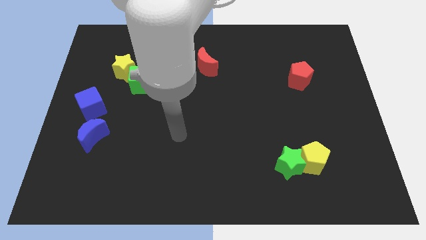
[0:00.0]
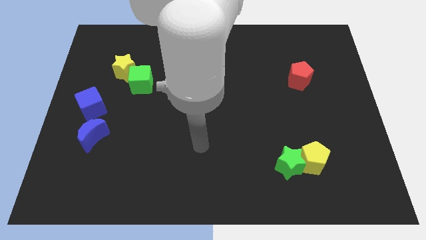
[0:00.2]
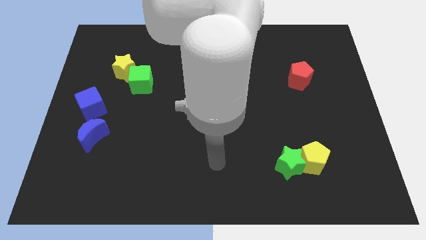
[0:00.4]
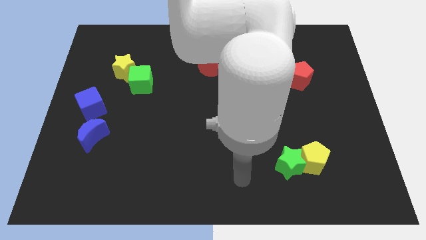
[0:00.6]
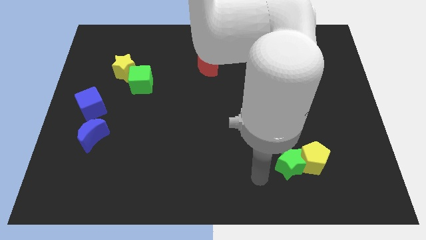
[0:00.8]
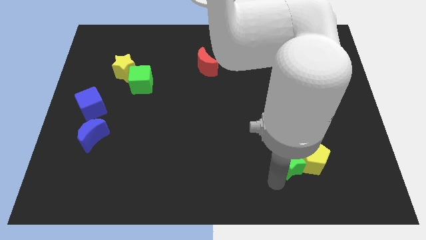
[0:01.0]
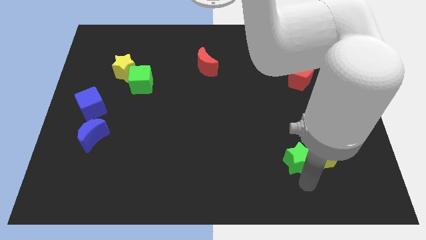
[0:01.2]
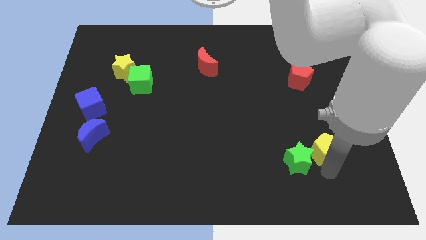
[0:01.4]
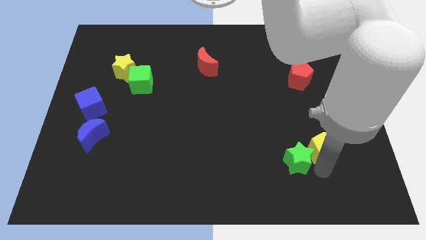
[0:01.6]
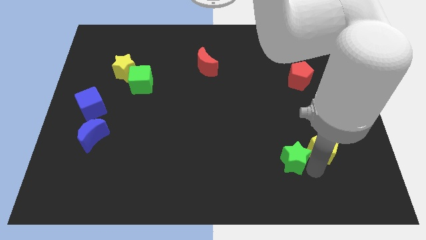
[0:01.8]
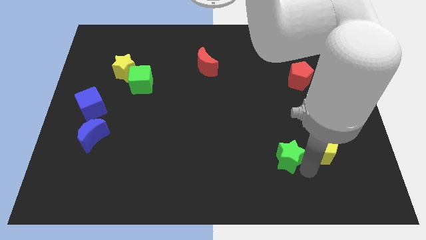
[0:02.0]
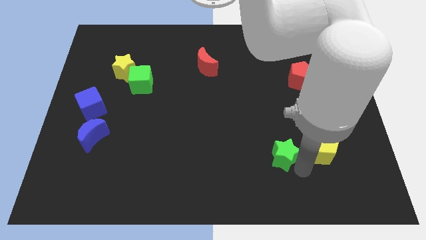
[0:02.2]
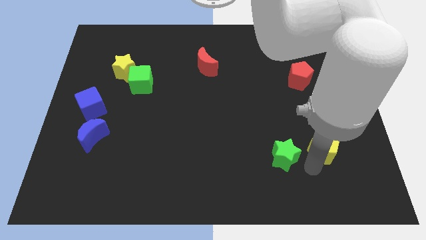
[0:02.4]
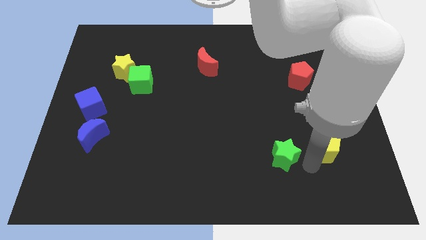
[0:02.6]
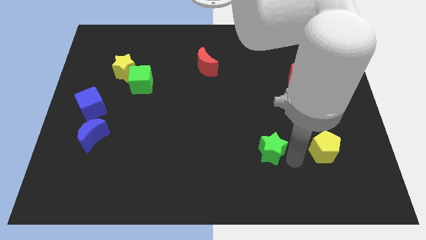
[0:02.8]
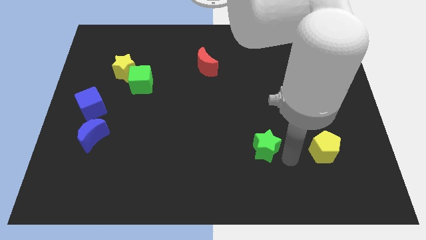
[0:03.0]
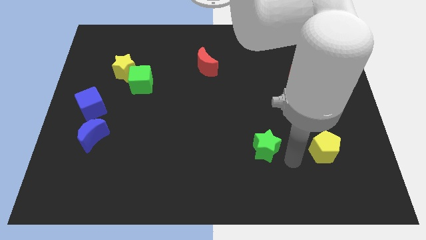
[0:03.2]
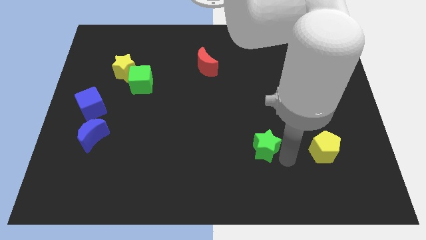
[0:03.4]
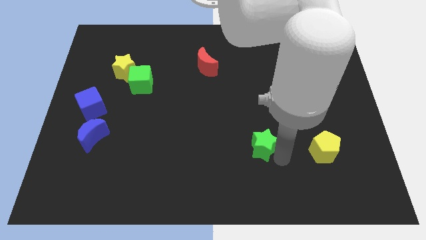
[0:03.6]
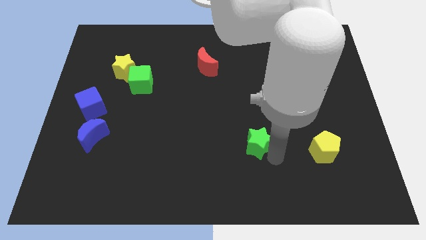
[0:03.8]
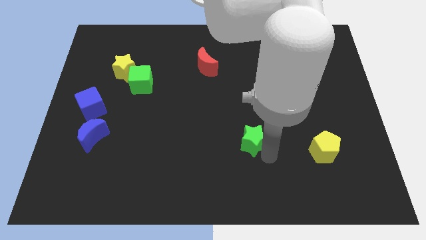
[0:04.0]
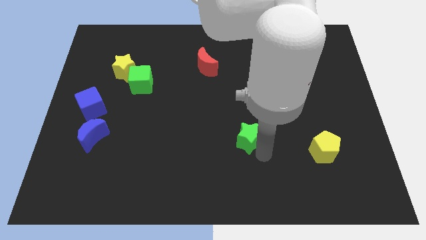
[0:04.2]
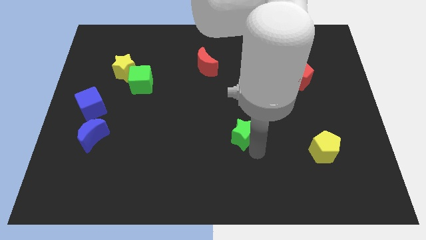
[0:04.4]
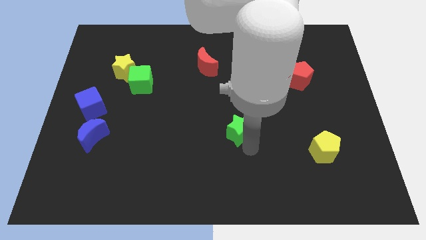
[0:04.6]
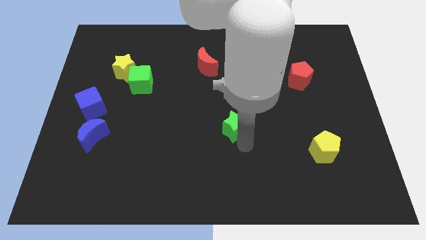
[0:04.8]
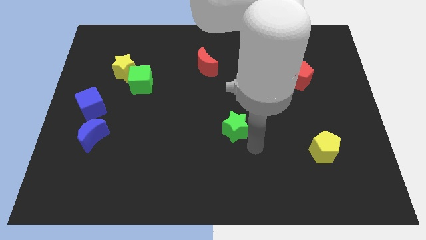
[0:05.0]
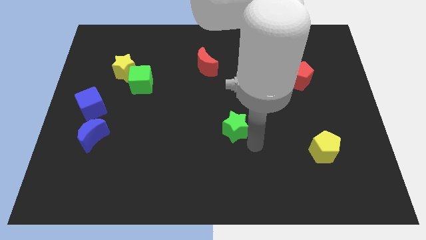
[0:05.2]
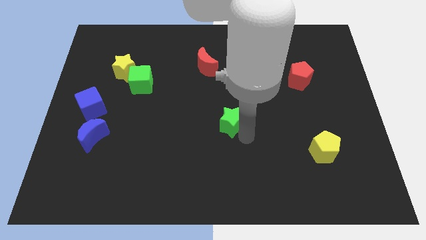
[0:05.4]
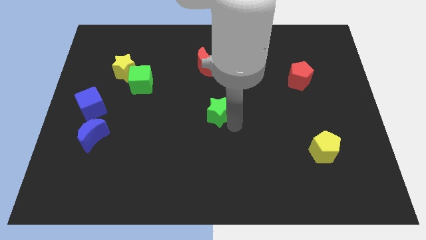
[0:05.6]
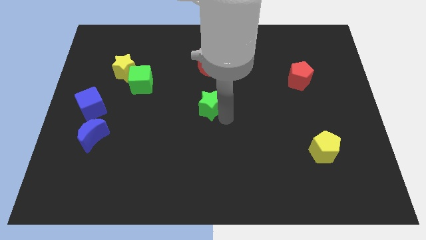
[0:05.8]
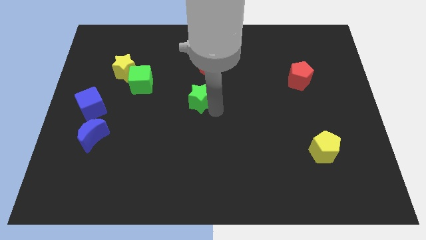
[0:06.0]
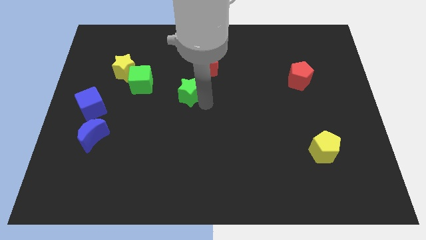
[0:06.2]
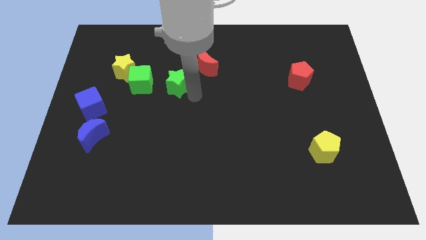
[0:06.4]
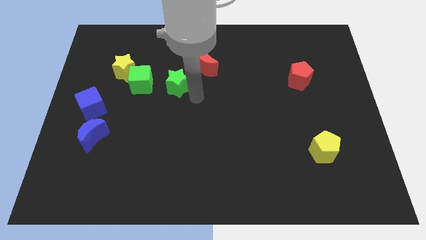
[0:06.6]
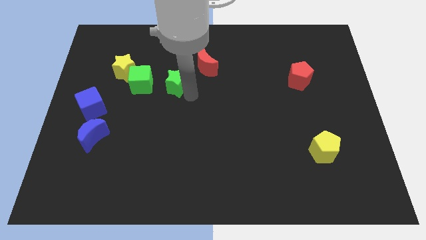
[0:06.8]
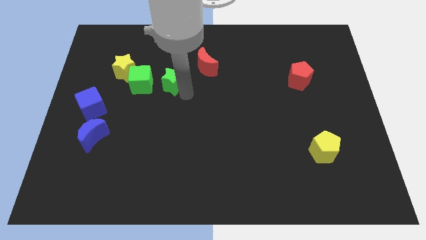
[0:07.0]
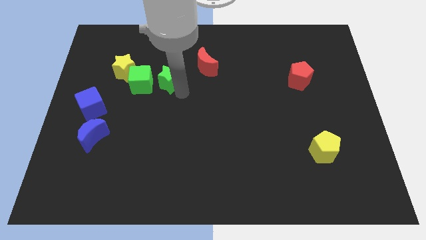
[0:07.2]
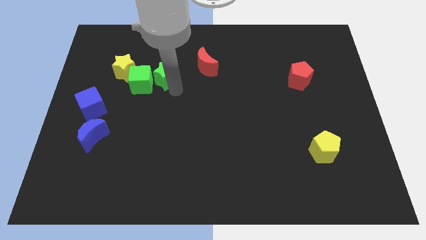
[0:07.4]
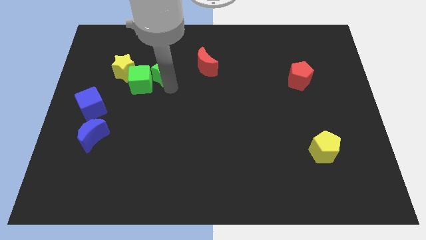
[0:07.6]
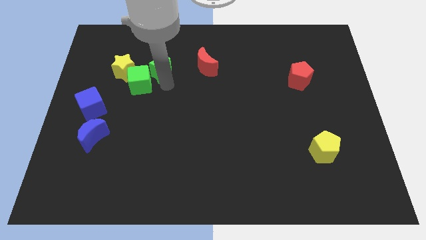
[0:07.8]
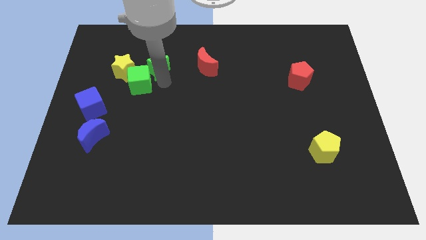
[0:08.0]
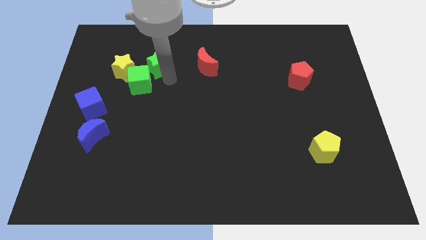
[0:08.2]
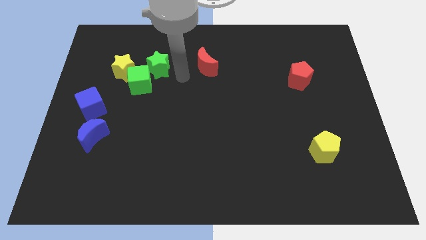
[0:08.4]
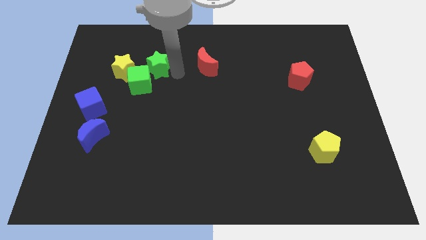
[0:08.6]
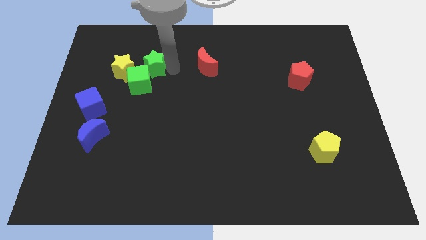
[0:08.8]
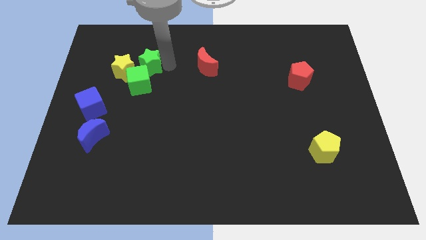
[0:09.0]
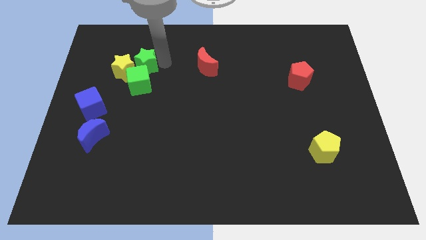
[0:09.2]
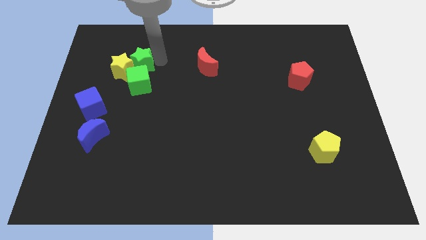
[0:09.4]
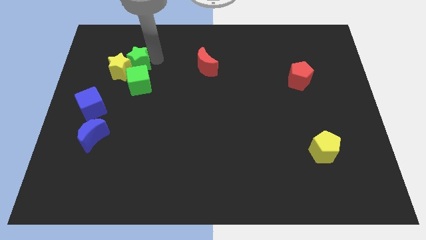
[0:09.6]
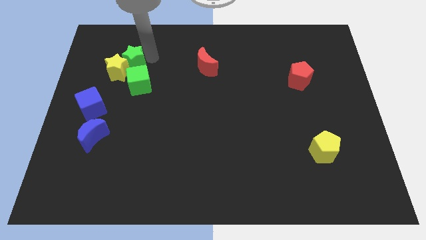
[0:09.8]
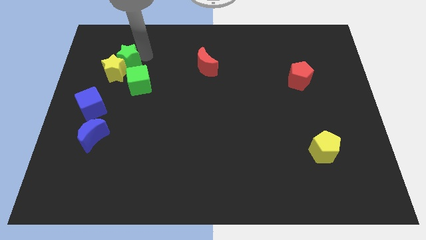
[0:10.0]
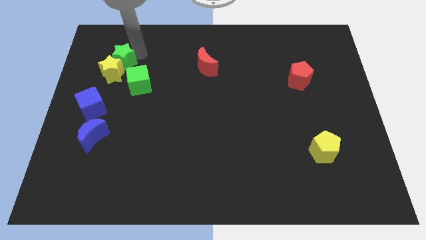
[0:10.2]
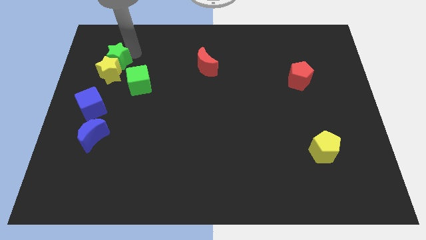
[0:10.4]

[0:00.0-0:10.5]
slide the green star diagonally up and to the left of the yellow star
